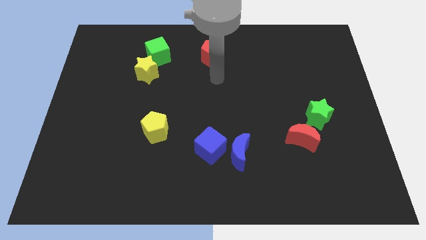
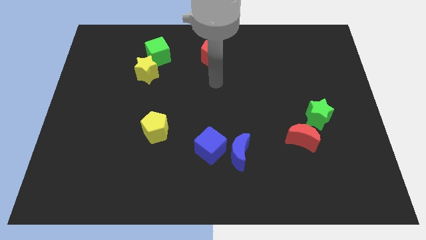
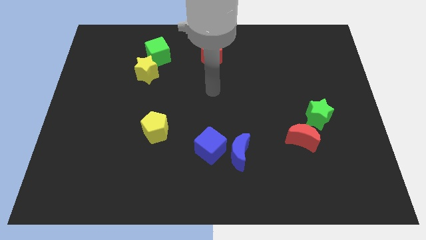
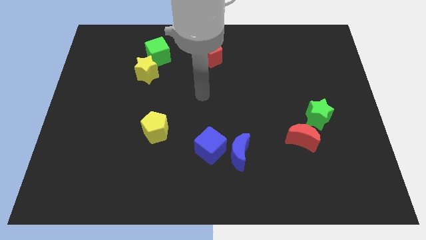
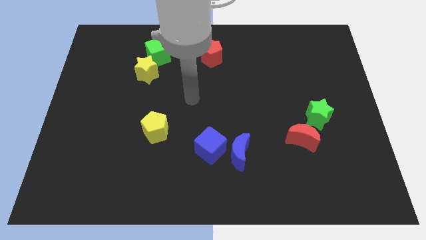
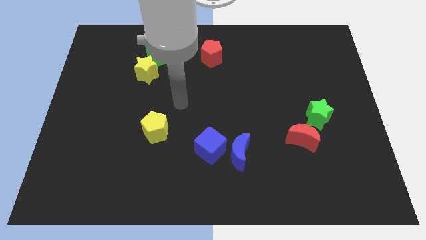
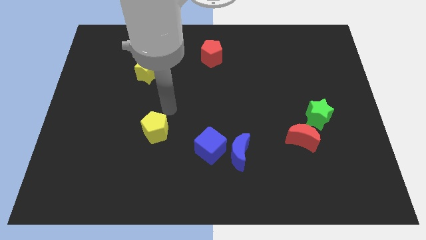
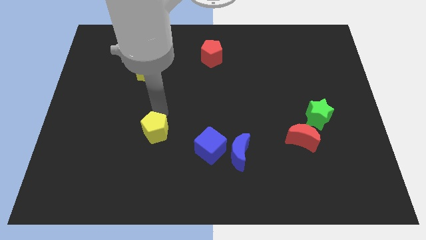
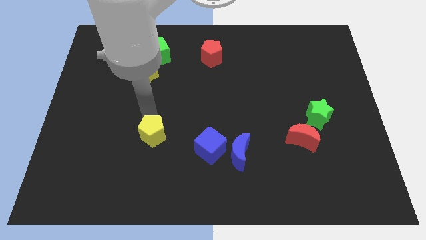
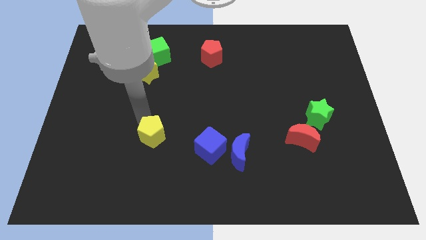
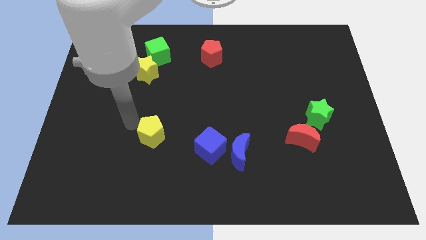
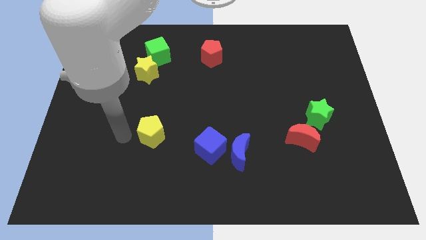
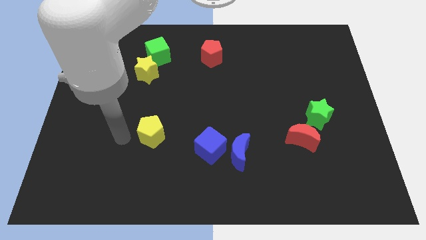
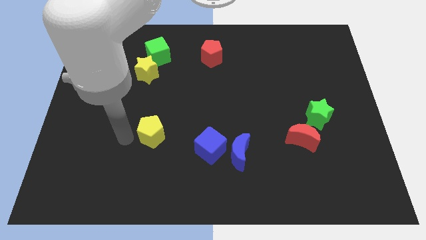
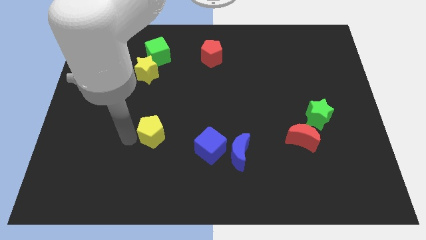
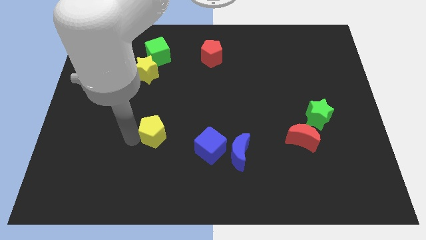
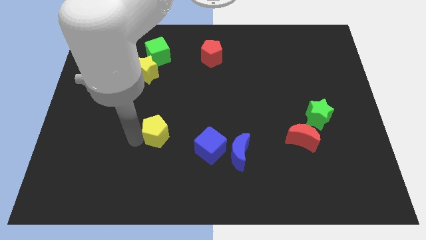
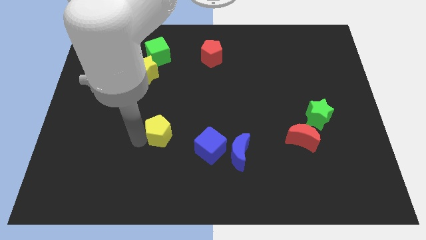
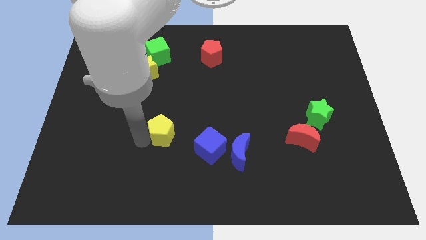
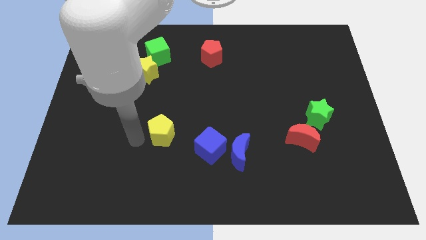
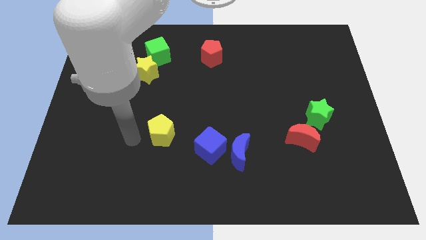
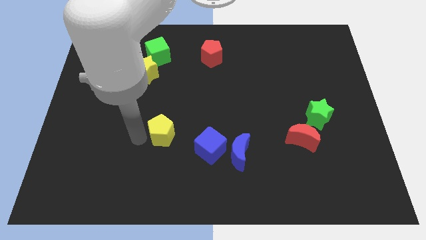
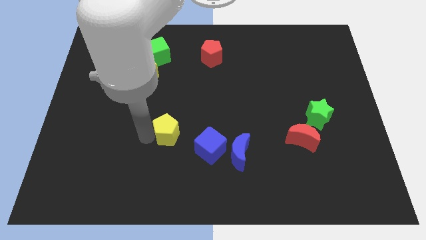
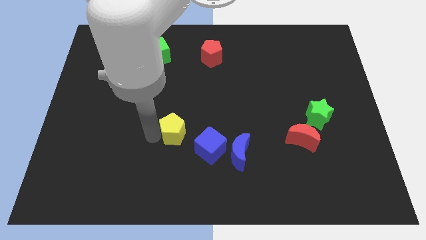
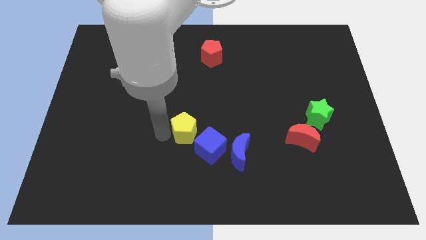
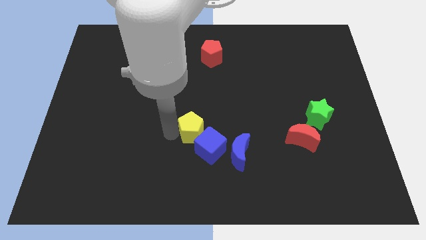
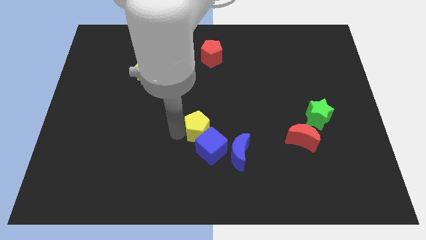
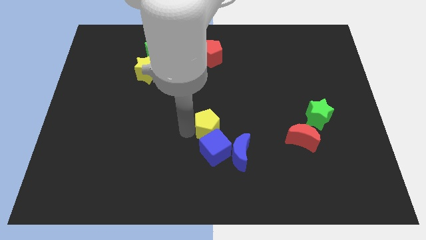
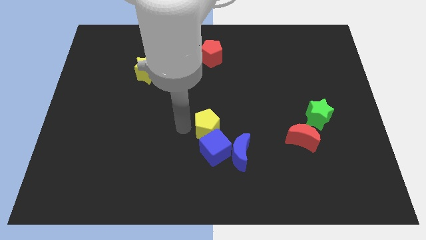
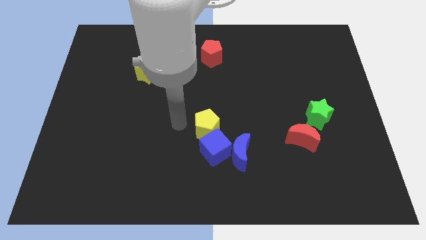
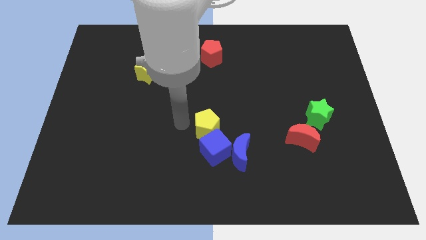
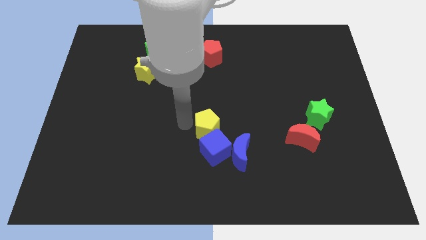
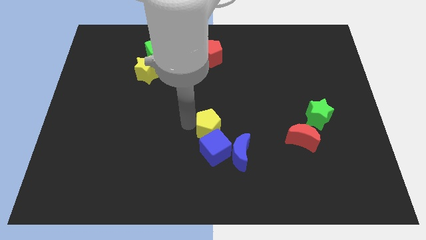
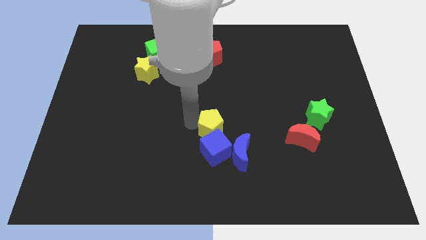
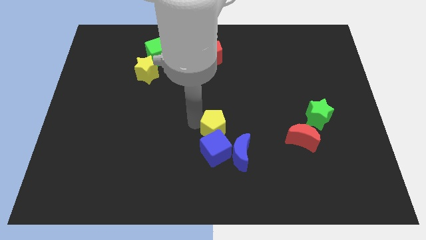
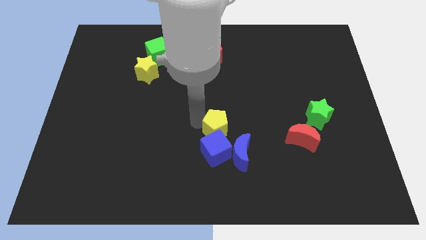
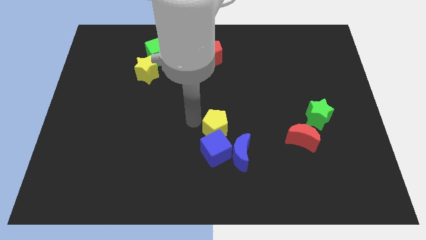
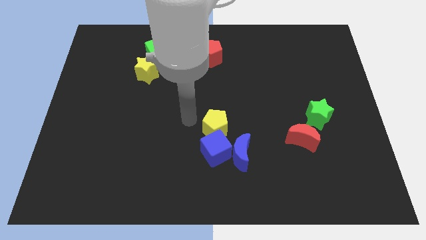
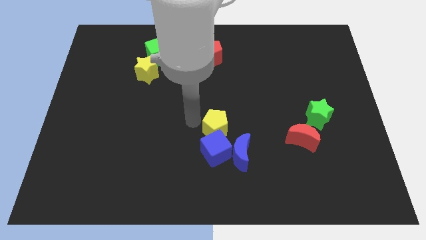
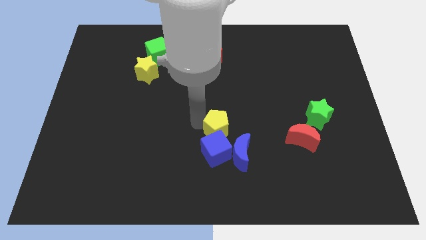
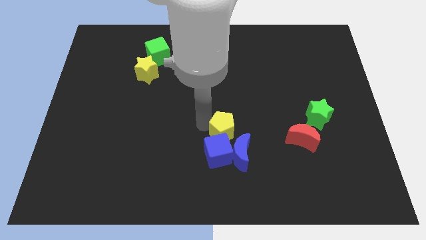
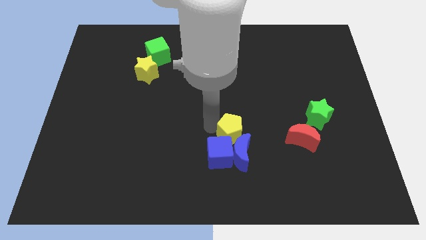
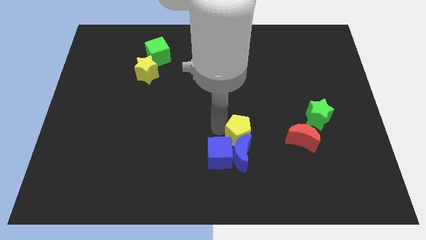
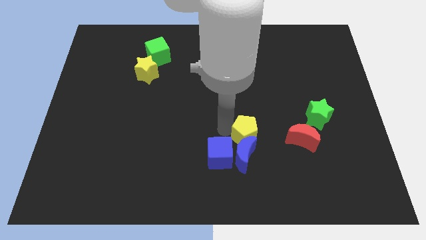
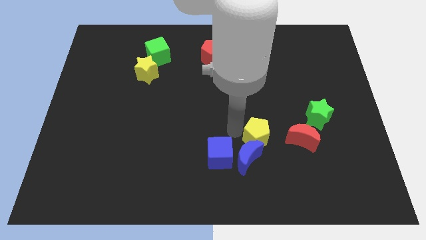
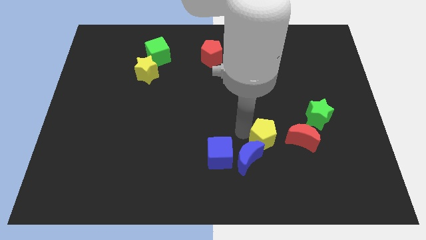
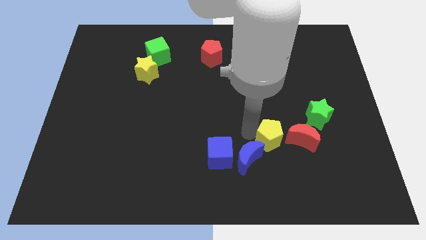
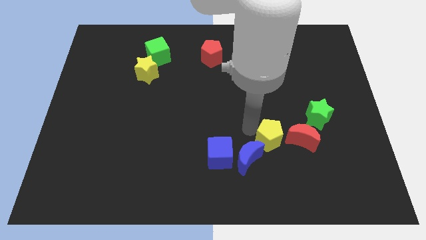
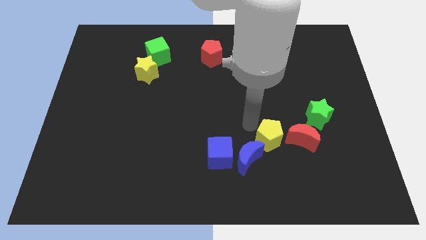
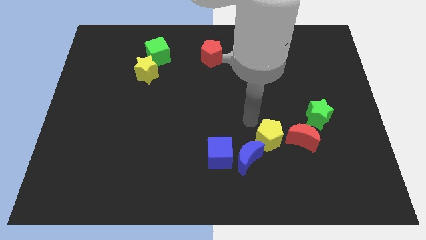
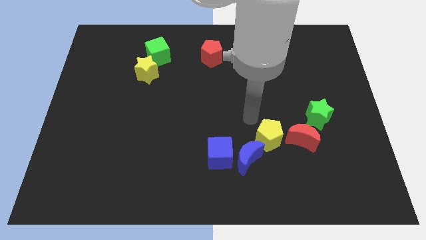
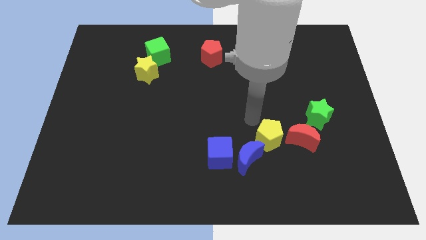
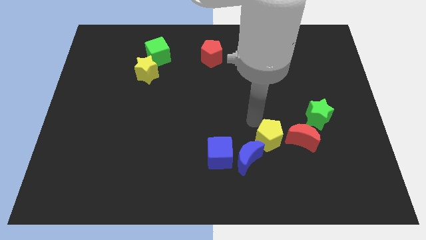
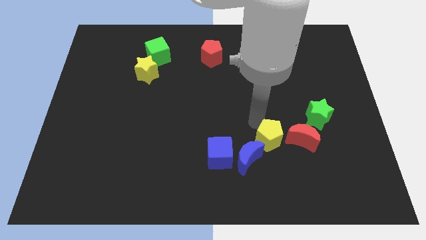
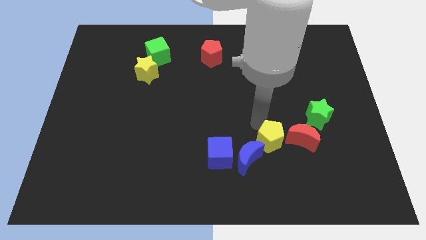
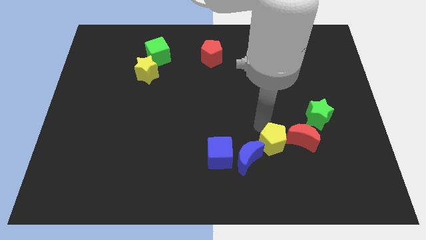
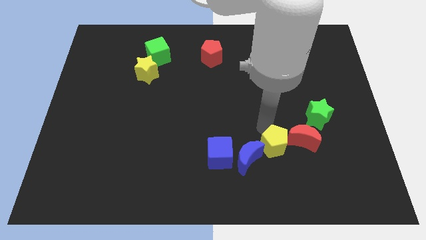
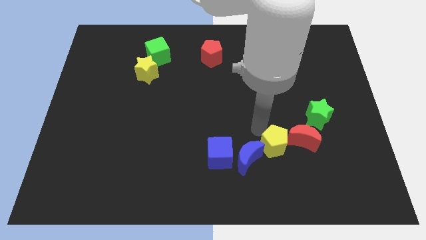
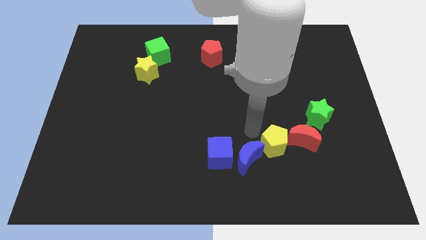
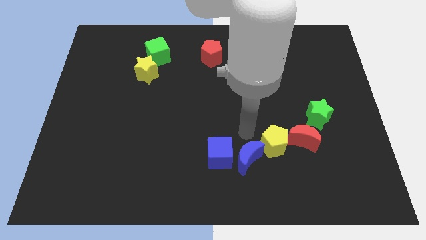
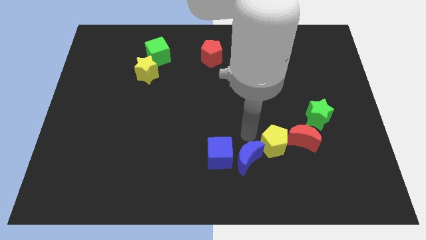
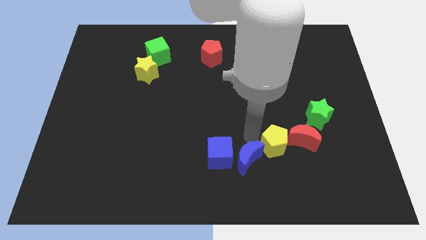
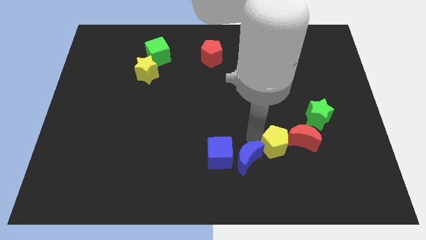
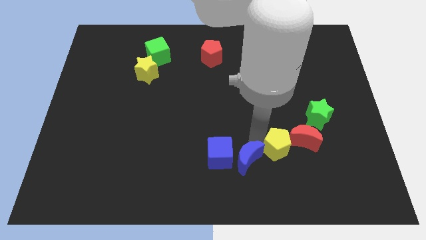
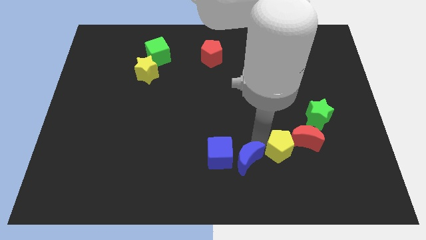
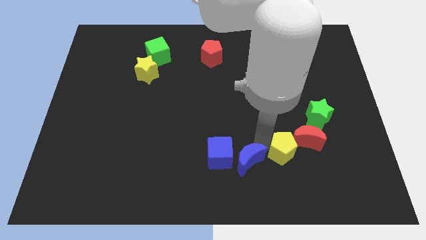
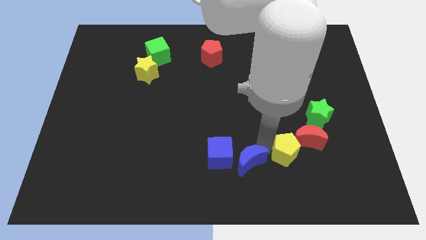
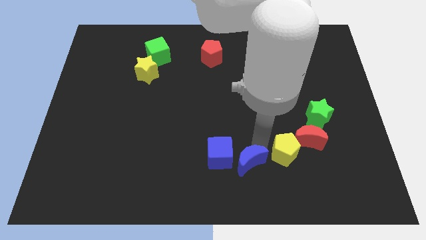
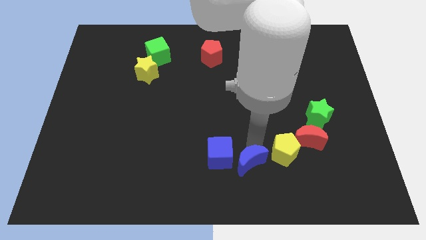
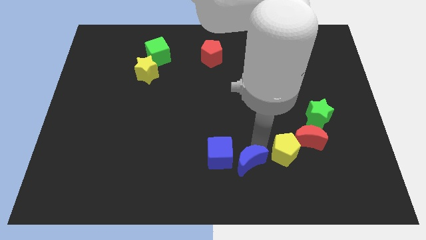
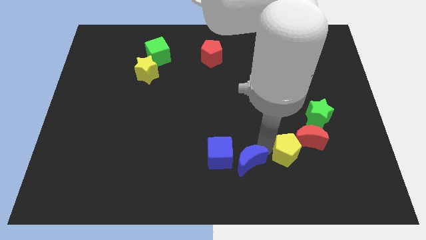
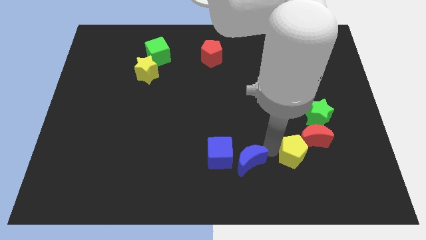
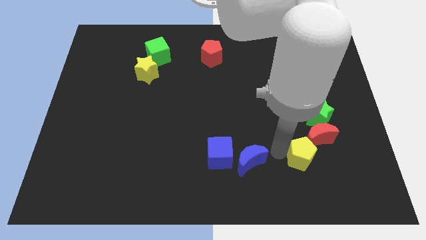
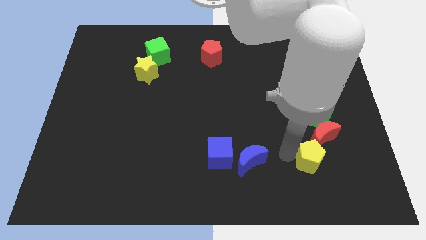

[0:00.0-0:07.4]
push the yellow pentagon to the bottom side of the green star

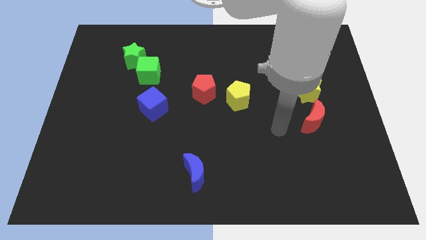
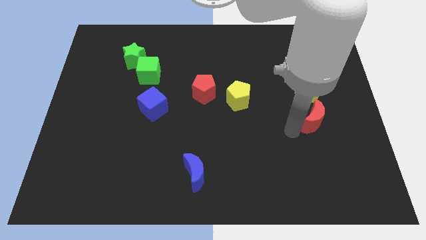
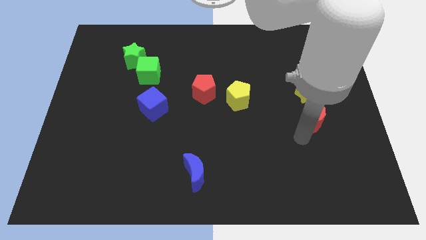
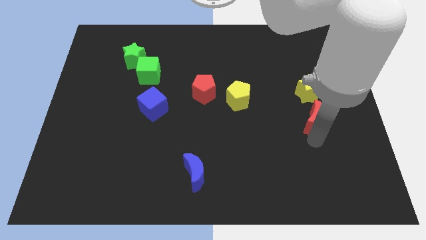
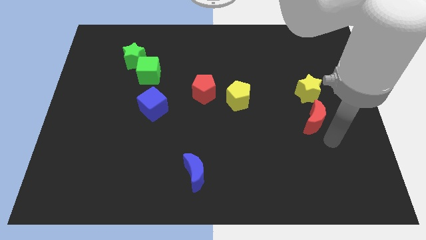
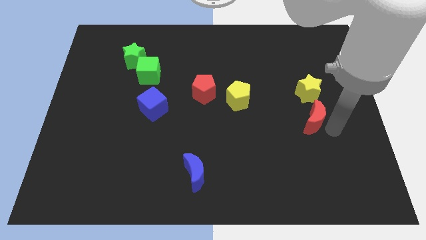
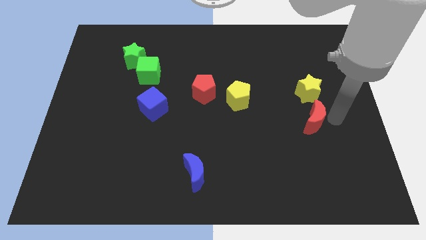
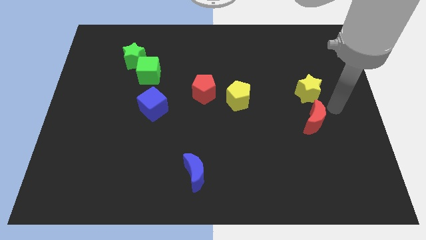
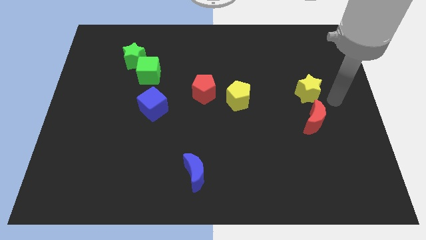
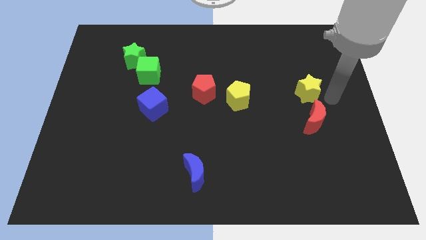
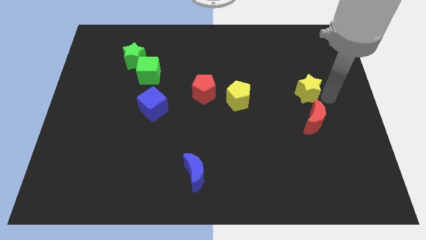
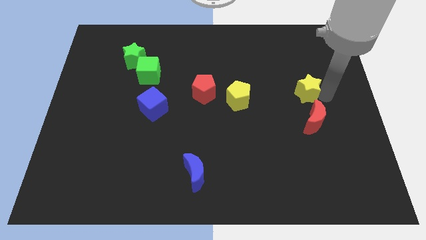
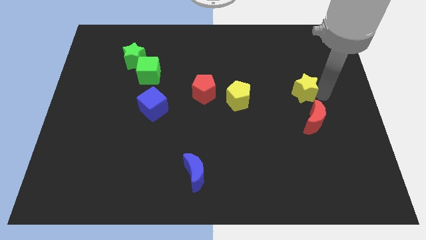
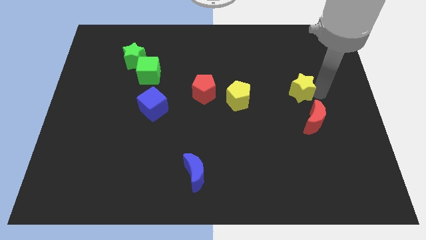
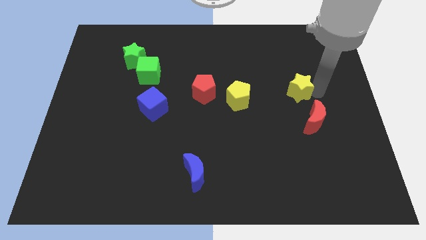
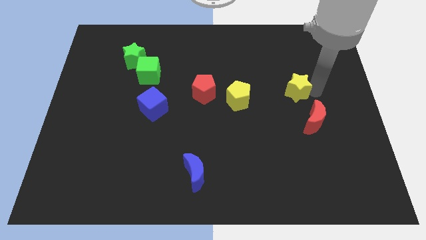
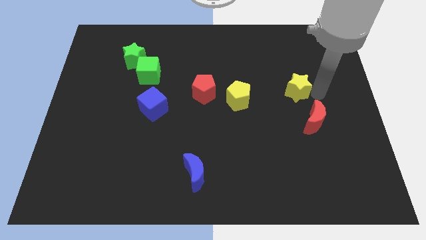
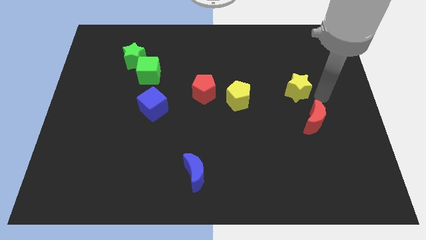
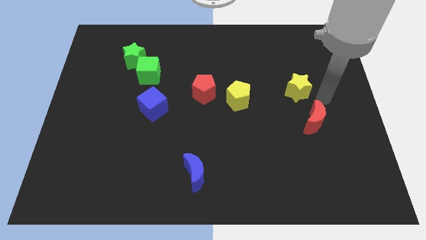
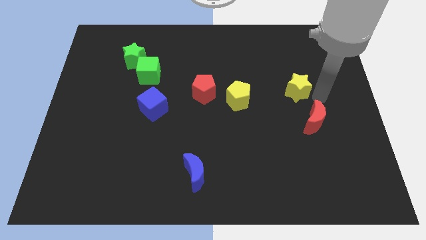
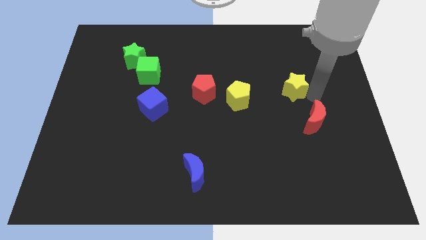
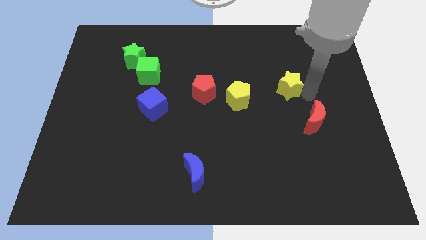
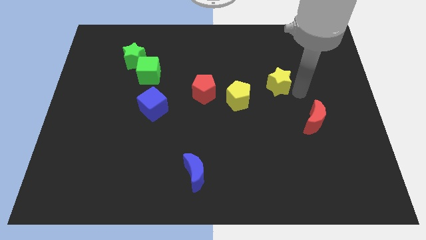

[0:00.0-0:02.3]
push the yellow star to the top right of the yellow pentagon
